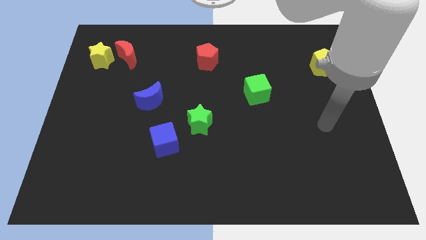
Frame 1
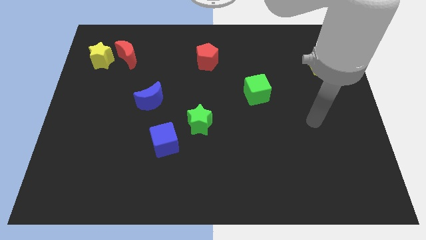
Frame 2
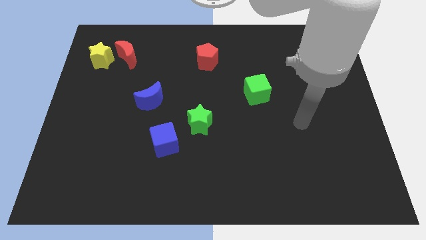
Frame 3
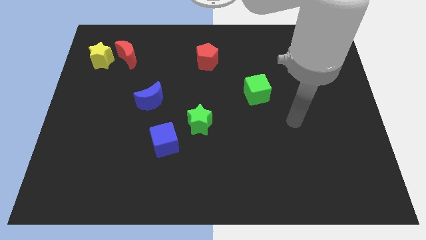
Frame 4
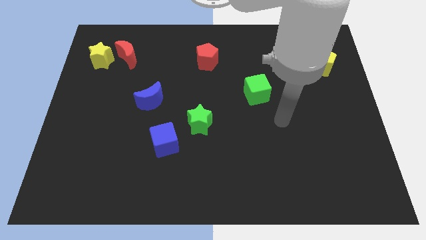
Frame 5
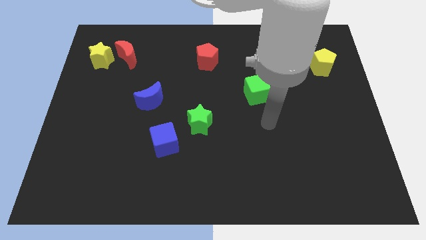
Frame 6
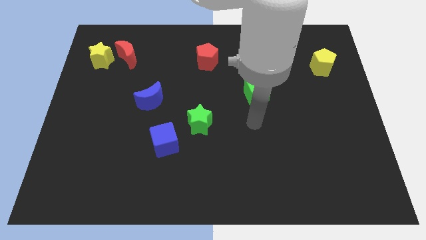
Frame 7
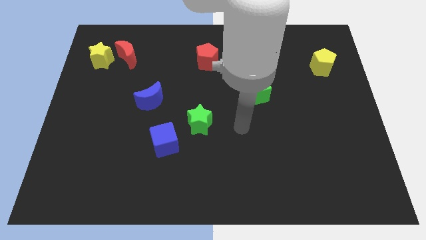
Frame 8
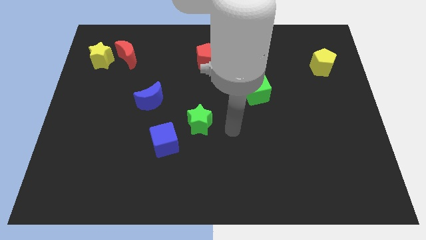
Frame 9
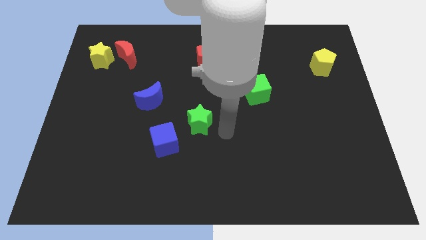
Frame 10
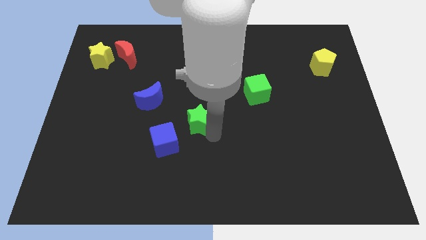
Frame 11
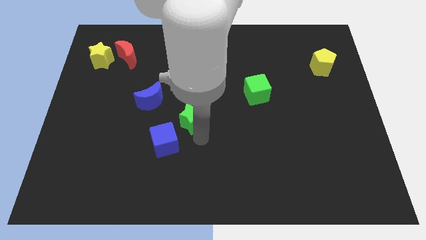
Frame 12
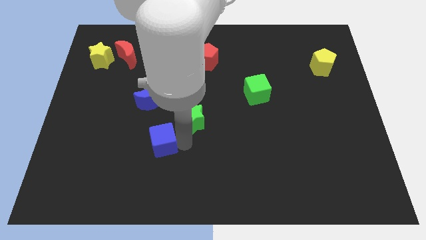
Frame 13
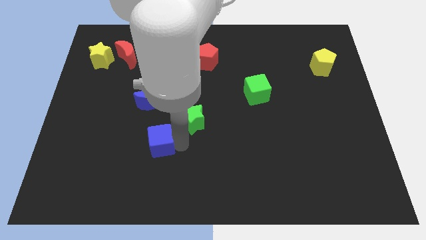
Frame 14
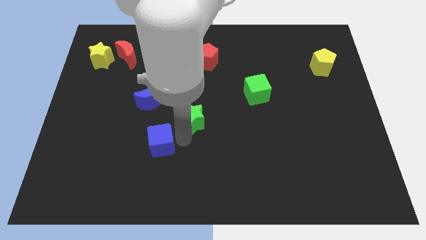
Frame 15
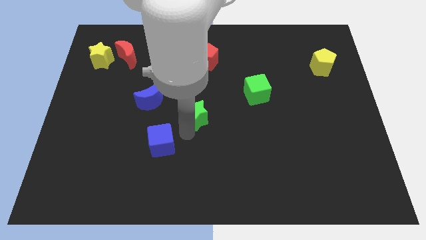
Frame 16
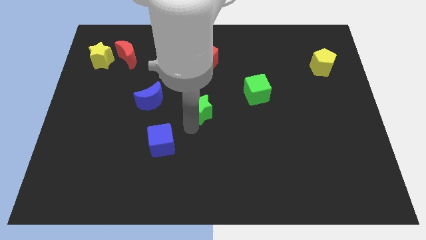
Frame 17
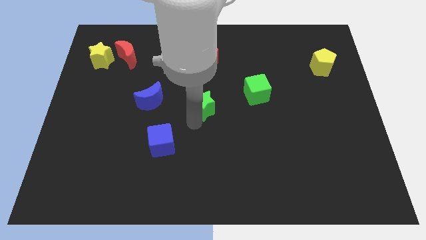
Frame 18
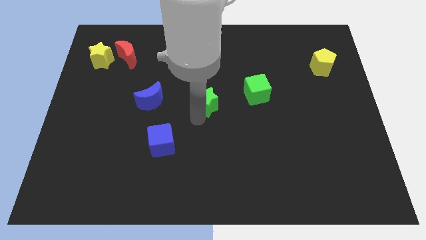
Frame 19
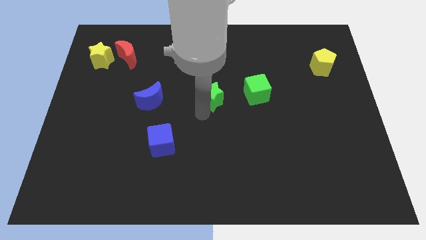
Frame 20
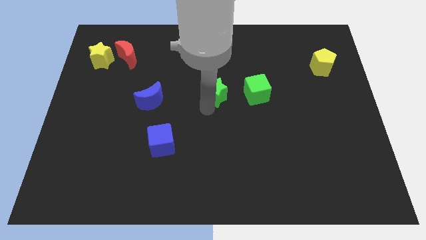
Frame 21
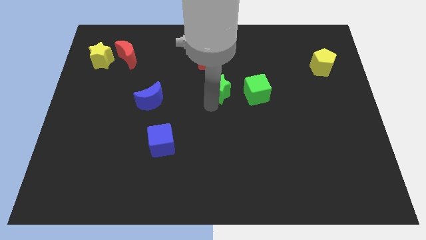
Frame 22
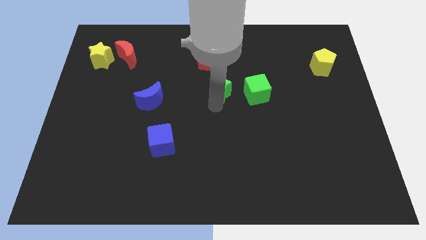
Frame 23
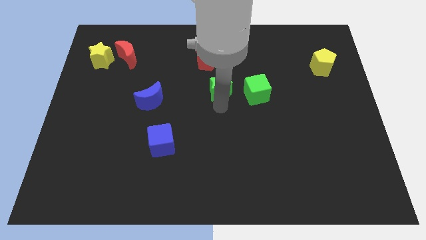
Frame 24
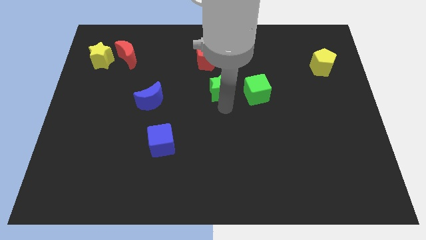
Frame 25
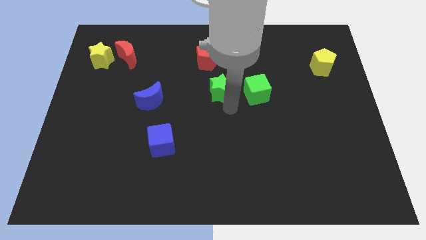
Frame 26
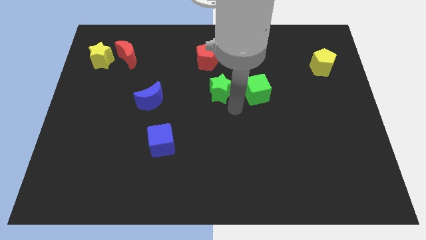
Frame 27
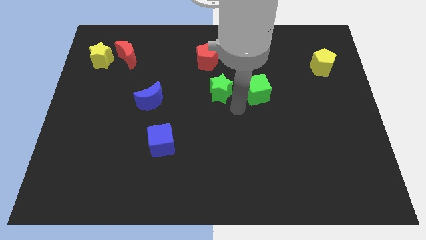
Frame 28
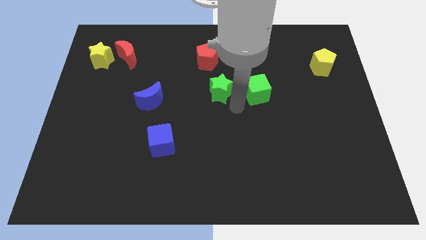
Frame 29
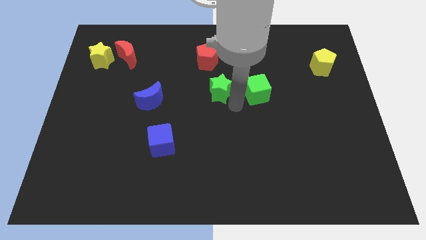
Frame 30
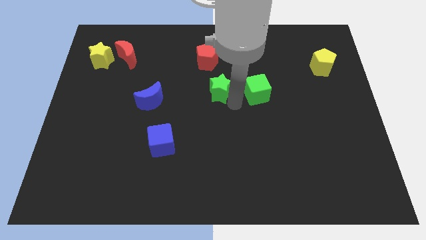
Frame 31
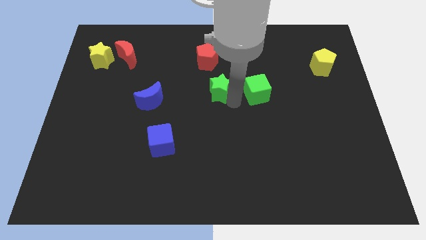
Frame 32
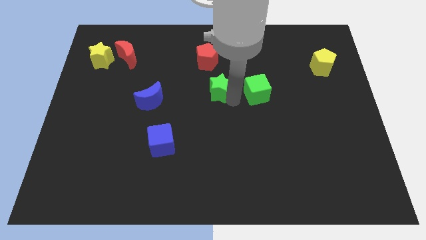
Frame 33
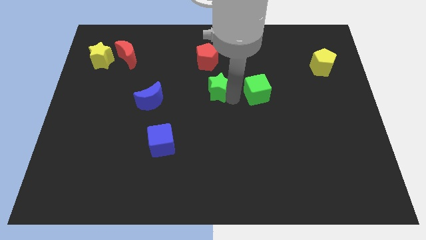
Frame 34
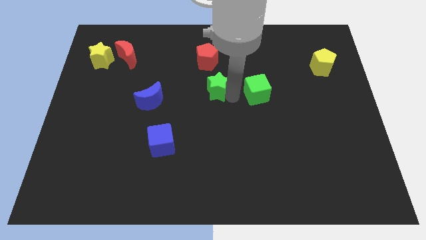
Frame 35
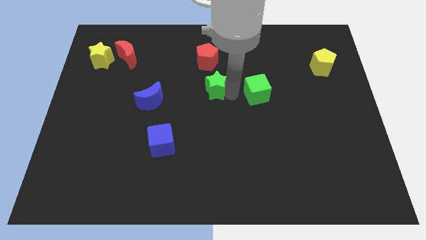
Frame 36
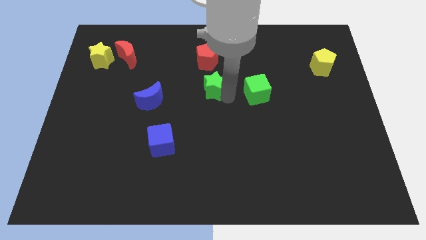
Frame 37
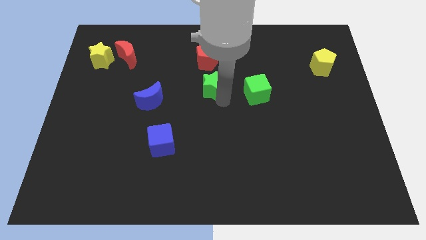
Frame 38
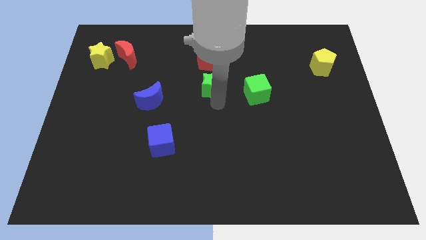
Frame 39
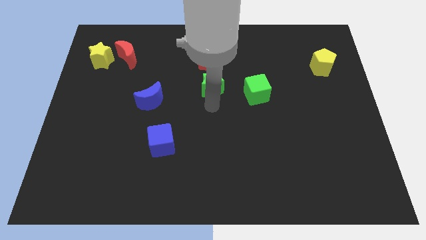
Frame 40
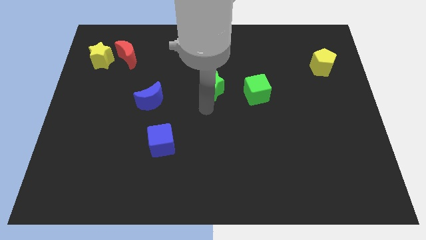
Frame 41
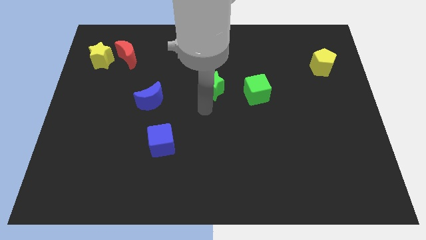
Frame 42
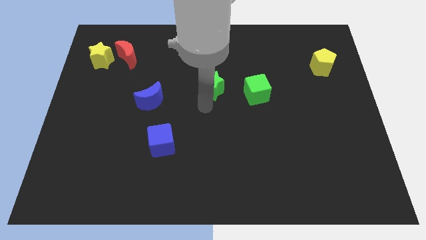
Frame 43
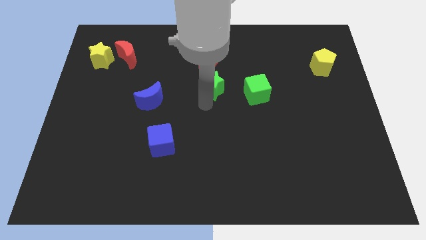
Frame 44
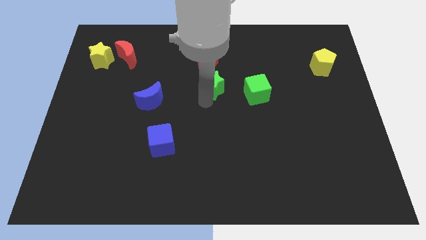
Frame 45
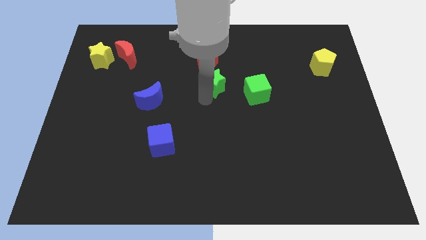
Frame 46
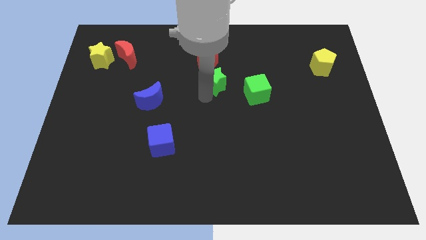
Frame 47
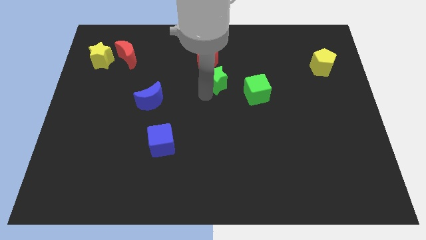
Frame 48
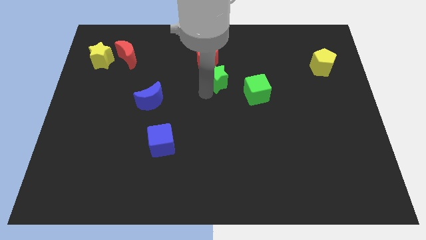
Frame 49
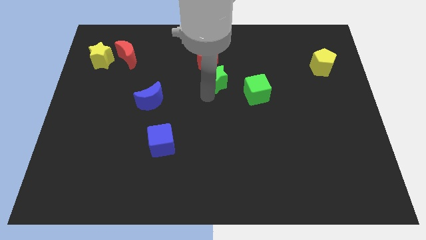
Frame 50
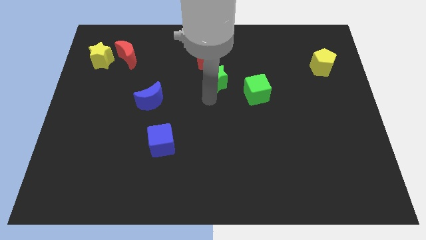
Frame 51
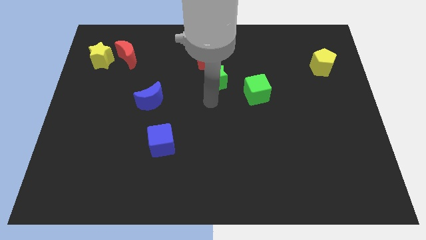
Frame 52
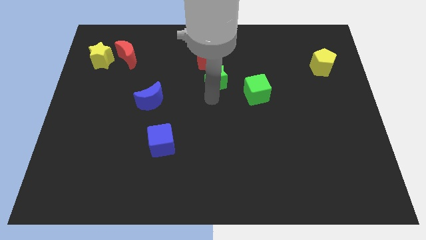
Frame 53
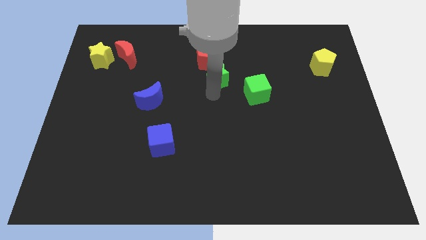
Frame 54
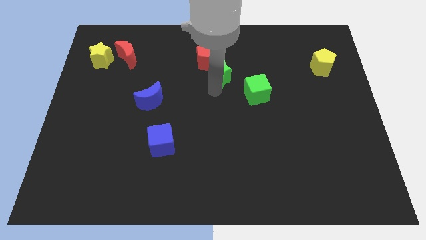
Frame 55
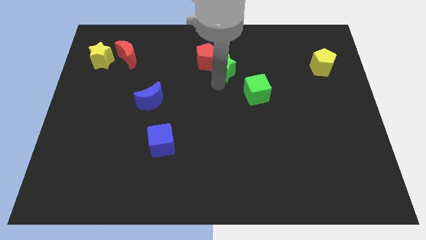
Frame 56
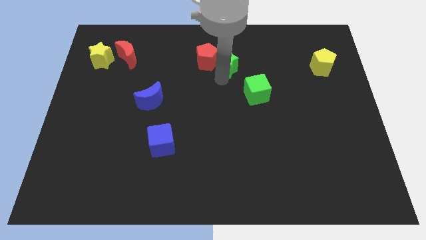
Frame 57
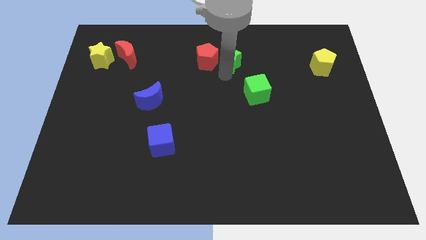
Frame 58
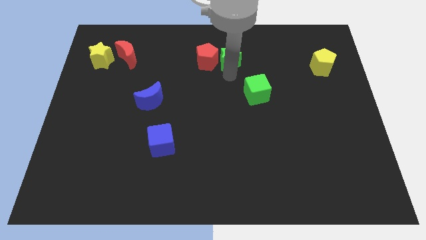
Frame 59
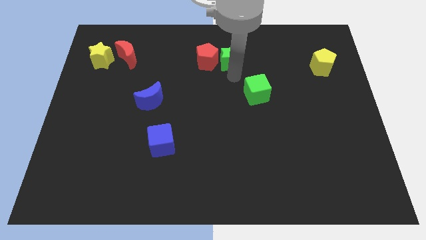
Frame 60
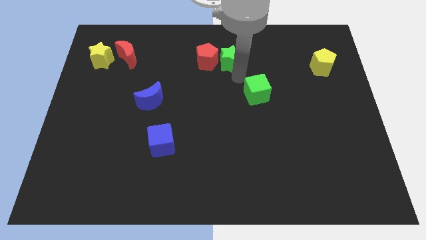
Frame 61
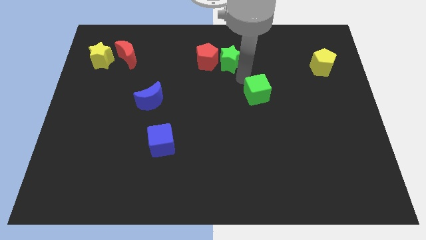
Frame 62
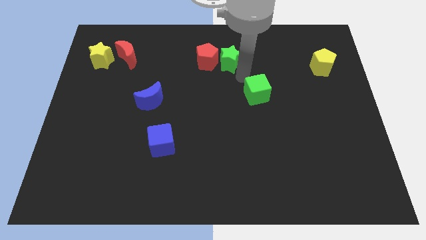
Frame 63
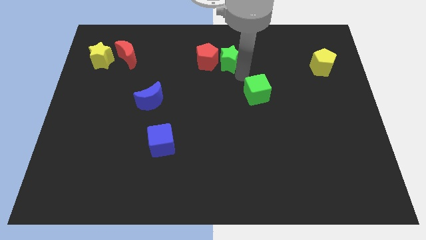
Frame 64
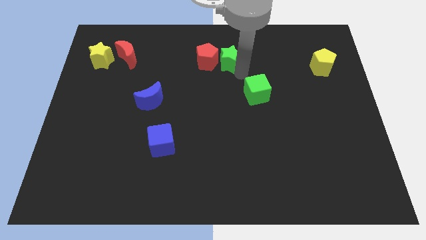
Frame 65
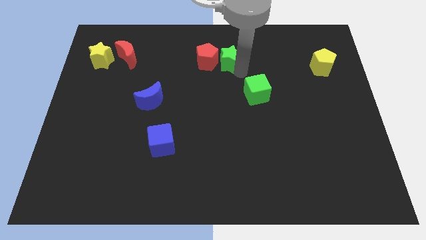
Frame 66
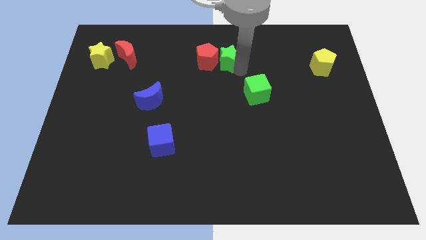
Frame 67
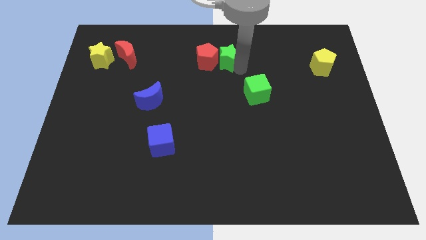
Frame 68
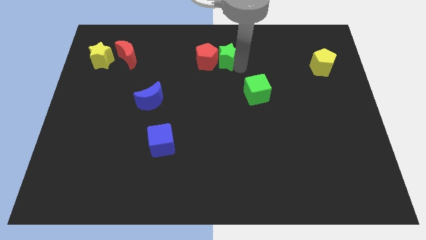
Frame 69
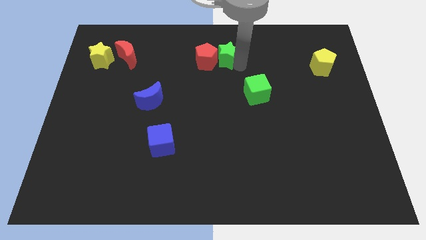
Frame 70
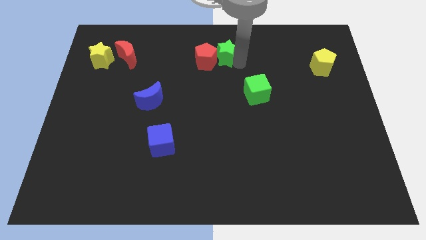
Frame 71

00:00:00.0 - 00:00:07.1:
move the green star to the top side

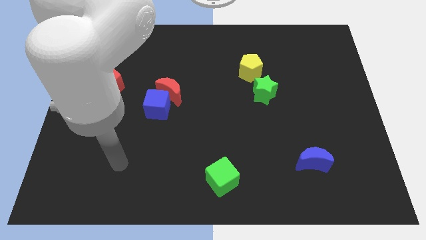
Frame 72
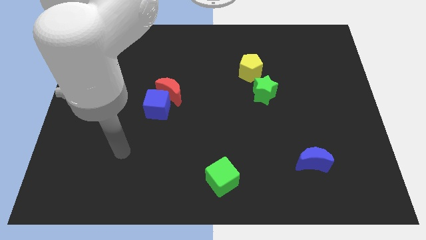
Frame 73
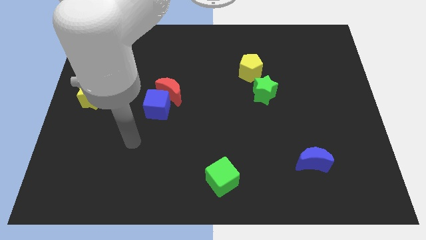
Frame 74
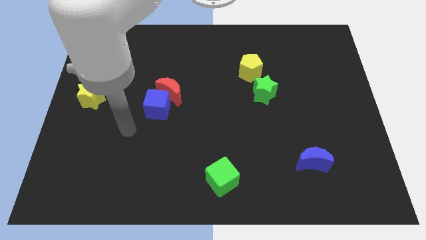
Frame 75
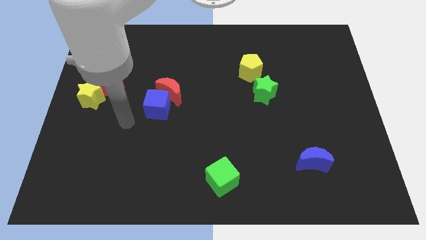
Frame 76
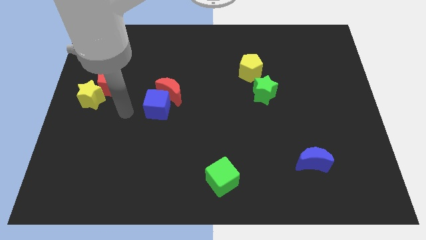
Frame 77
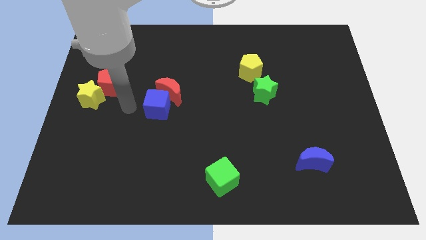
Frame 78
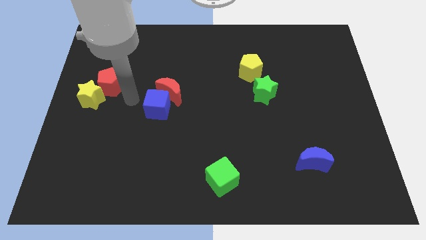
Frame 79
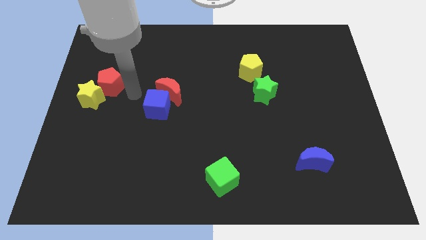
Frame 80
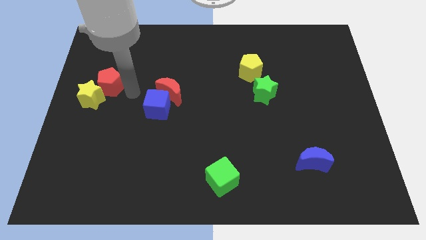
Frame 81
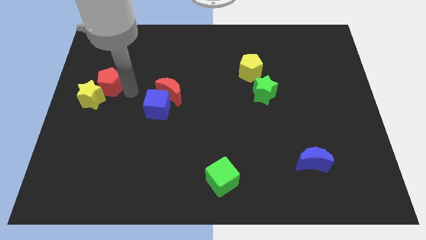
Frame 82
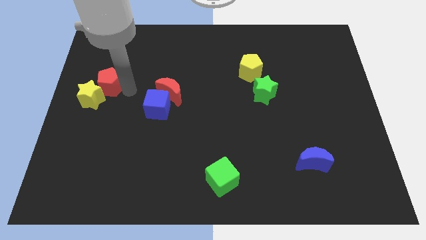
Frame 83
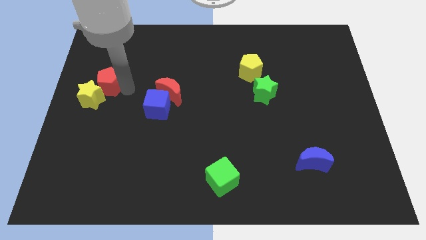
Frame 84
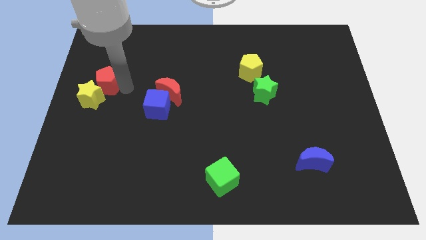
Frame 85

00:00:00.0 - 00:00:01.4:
push the red pentagon to the left side of the board
